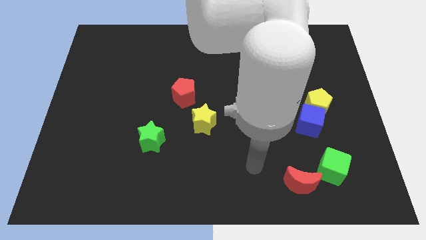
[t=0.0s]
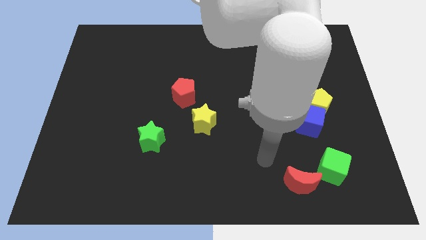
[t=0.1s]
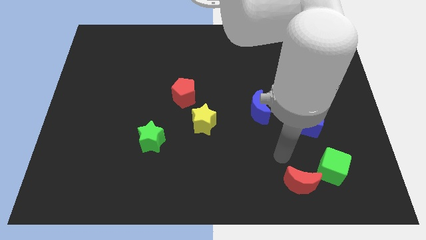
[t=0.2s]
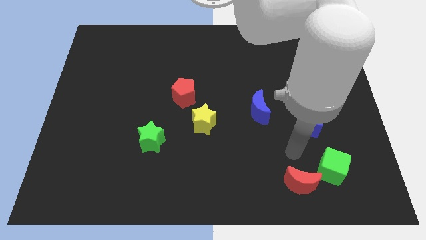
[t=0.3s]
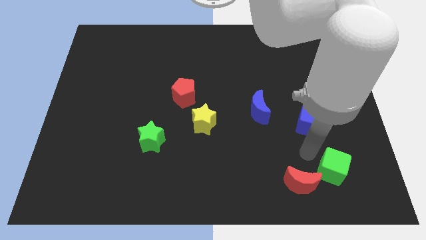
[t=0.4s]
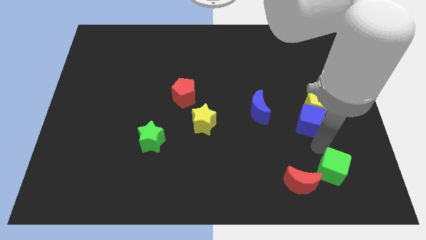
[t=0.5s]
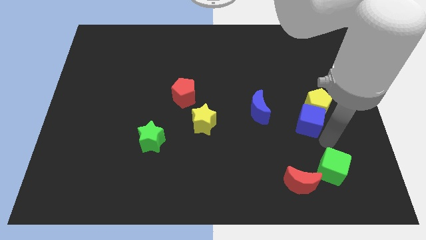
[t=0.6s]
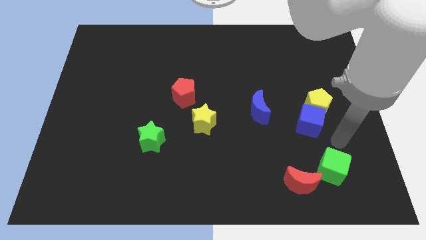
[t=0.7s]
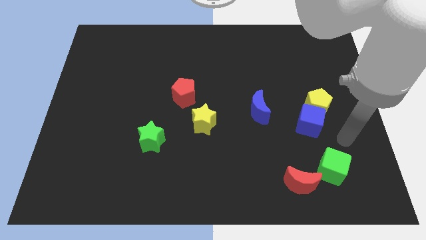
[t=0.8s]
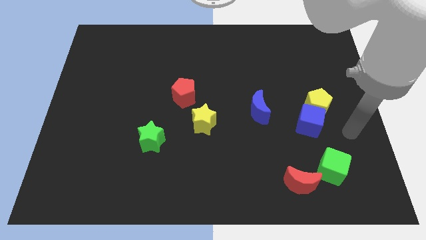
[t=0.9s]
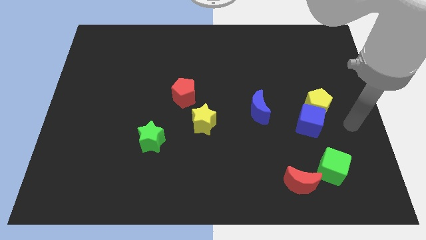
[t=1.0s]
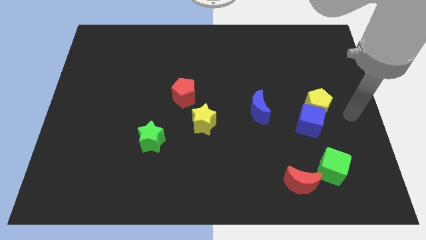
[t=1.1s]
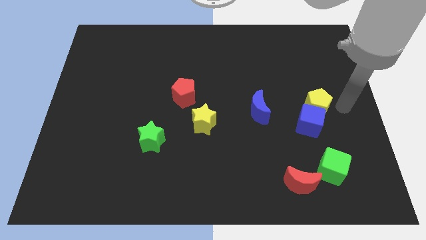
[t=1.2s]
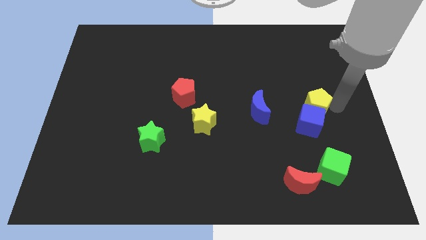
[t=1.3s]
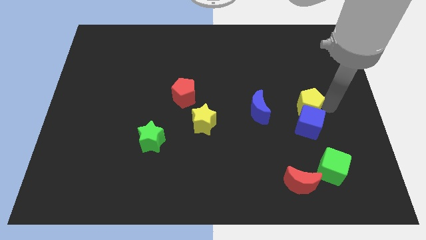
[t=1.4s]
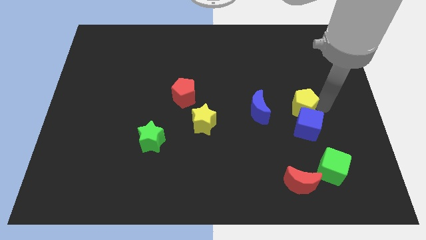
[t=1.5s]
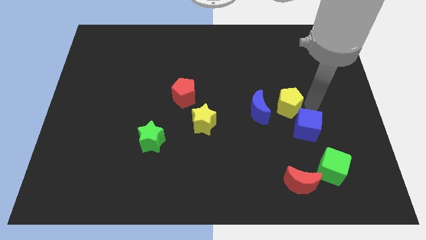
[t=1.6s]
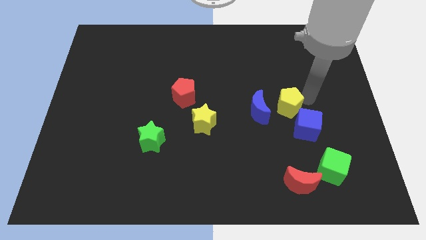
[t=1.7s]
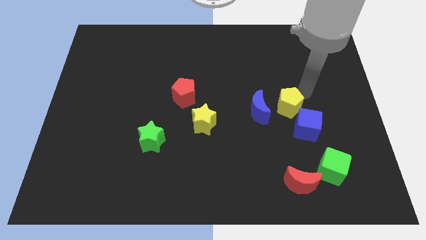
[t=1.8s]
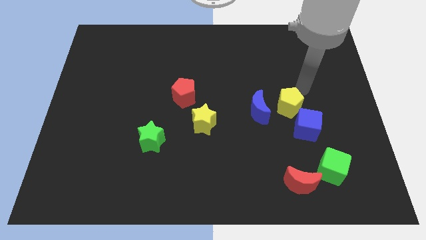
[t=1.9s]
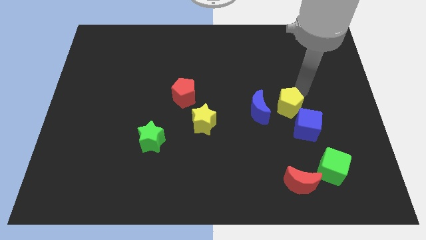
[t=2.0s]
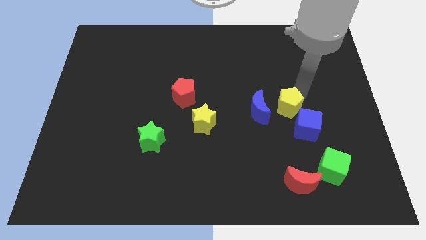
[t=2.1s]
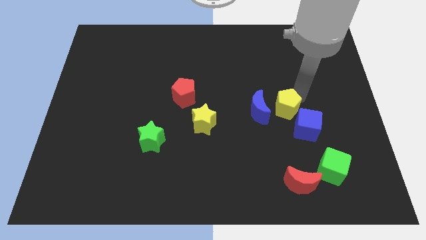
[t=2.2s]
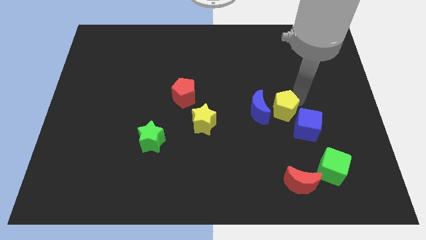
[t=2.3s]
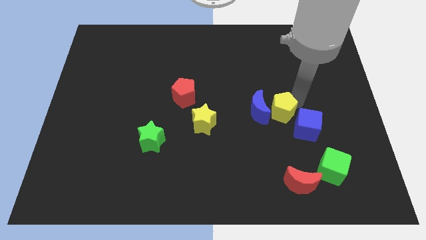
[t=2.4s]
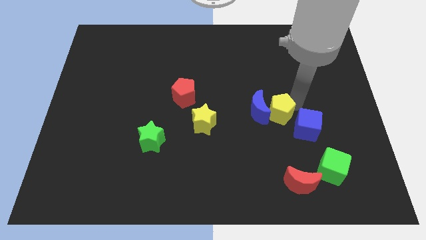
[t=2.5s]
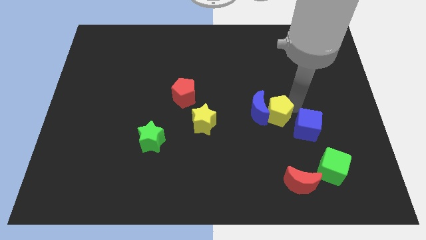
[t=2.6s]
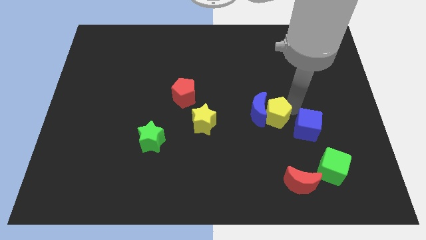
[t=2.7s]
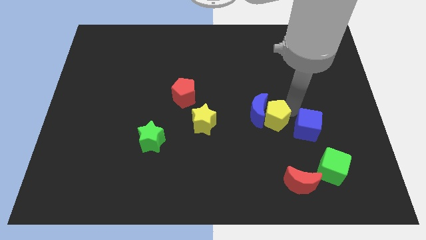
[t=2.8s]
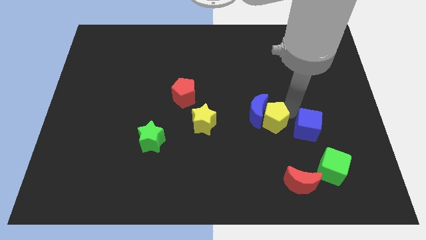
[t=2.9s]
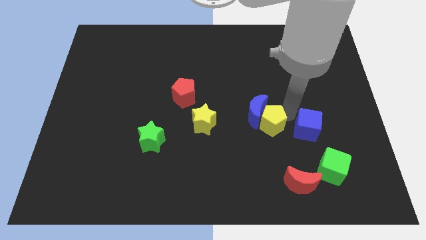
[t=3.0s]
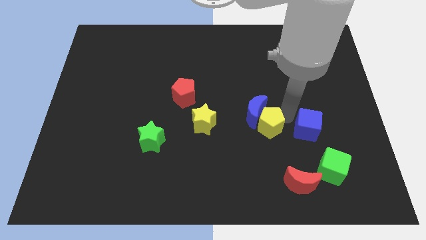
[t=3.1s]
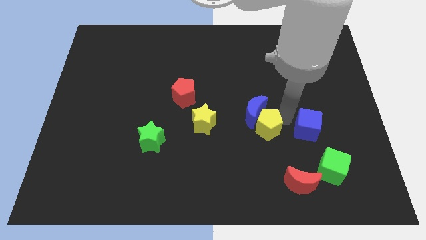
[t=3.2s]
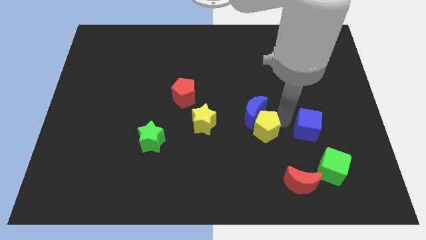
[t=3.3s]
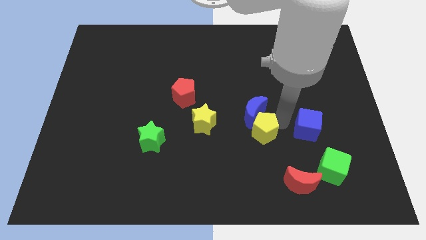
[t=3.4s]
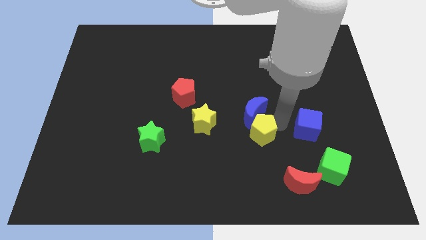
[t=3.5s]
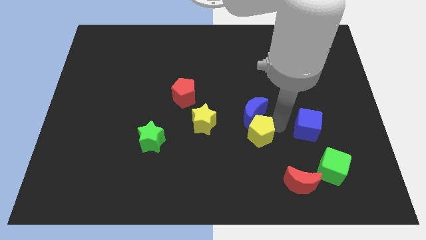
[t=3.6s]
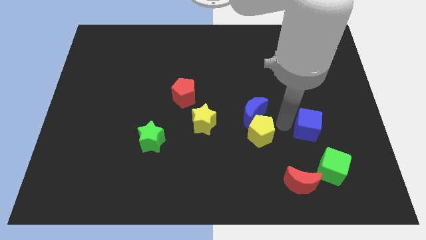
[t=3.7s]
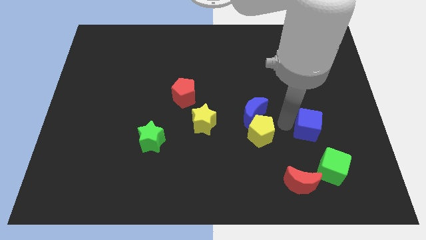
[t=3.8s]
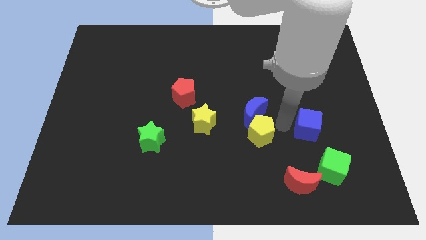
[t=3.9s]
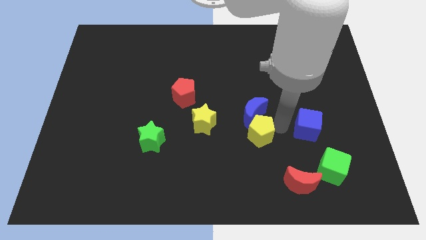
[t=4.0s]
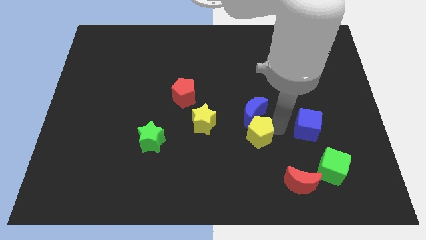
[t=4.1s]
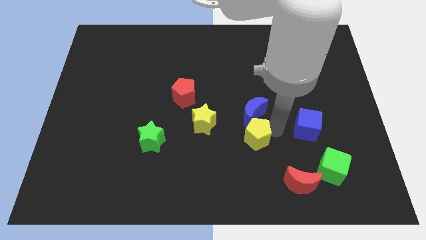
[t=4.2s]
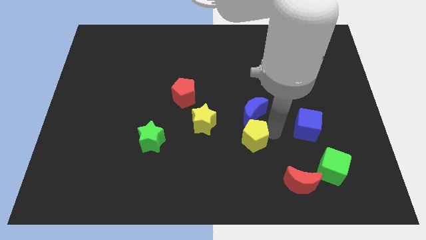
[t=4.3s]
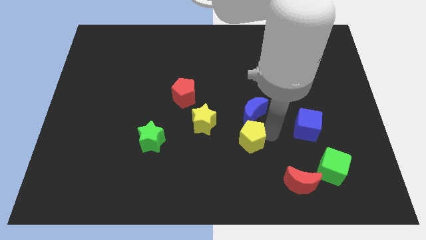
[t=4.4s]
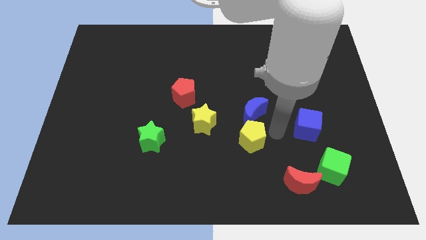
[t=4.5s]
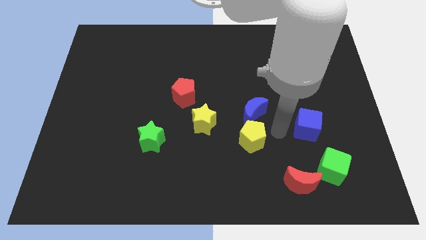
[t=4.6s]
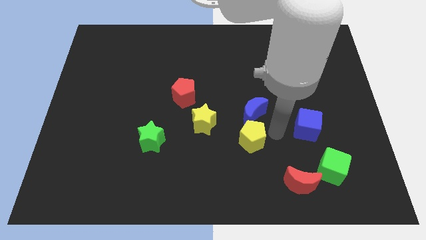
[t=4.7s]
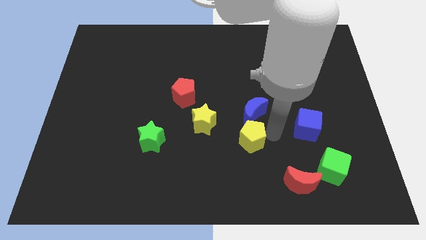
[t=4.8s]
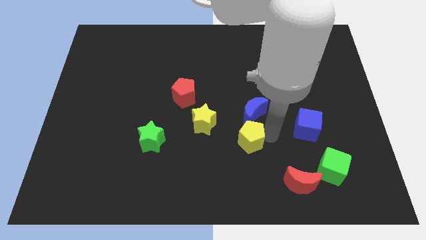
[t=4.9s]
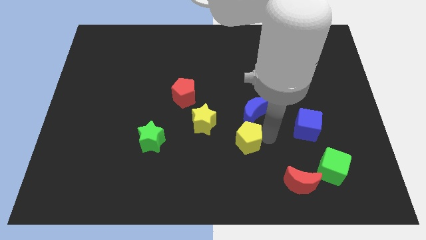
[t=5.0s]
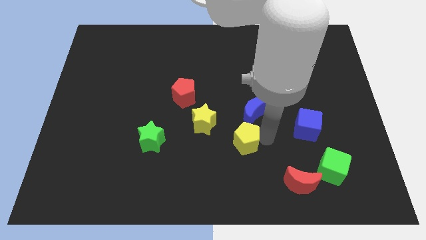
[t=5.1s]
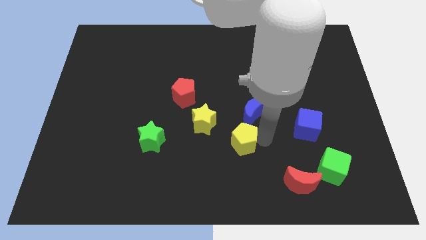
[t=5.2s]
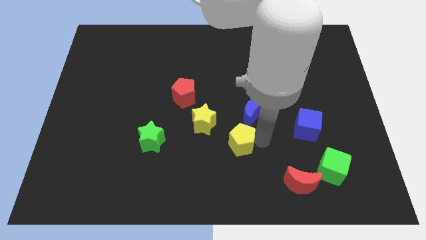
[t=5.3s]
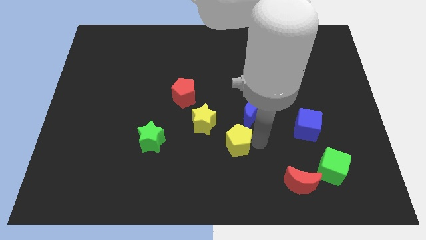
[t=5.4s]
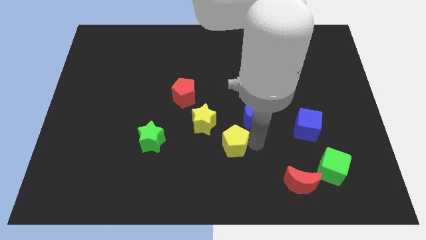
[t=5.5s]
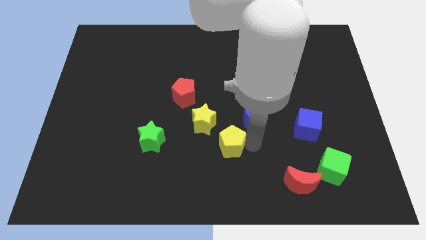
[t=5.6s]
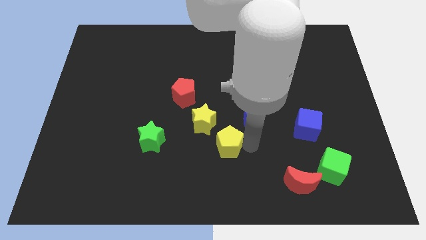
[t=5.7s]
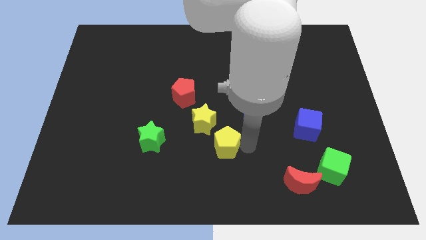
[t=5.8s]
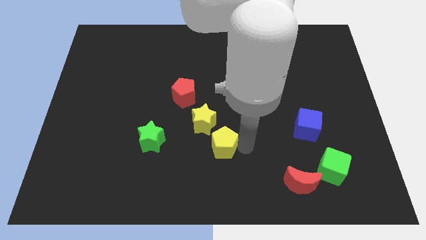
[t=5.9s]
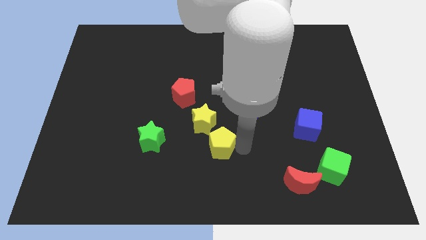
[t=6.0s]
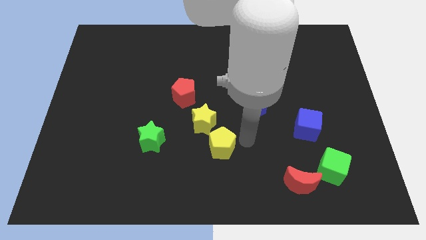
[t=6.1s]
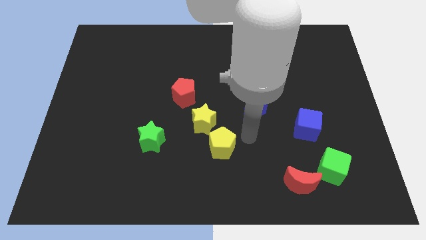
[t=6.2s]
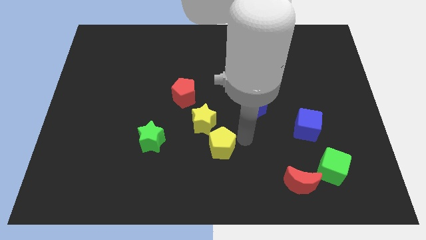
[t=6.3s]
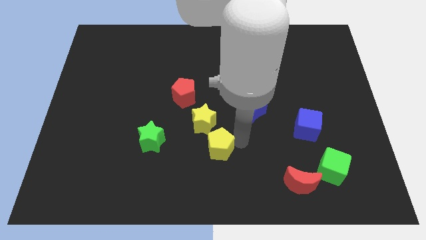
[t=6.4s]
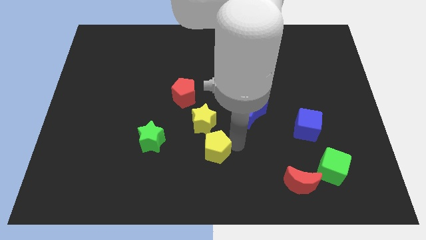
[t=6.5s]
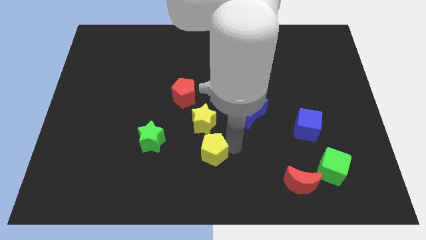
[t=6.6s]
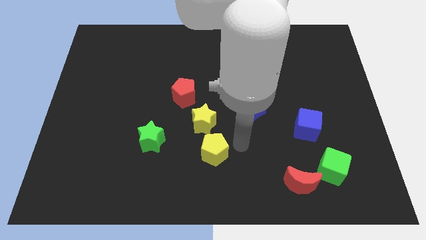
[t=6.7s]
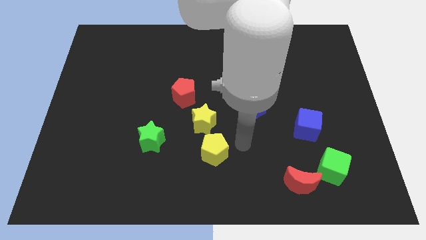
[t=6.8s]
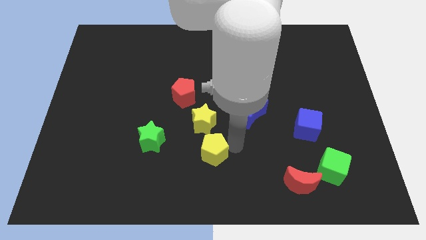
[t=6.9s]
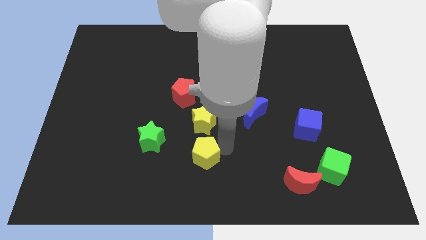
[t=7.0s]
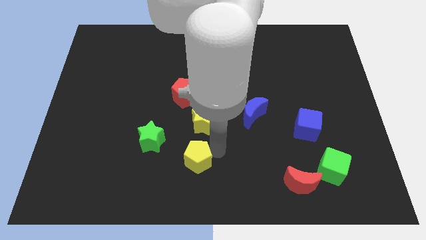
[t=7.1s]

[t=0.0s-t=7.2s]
move the yellow pentagon diagonally down and to the right of the green star
